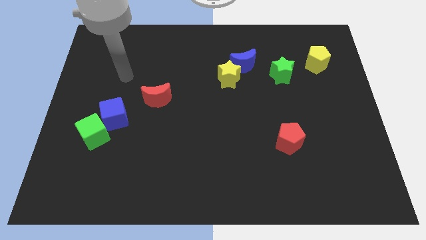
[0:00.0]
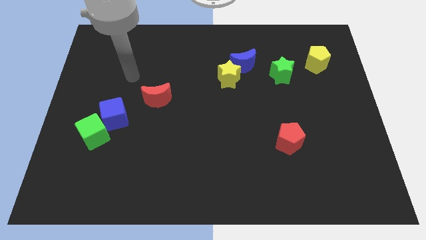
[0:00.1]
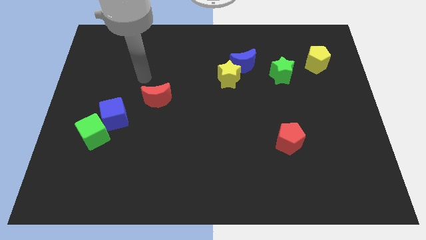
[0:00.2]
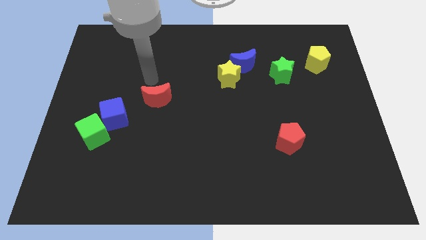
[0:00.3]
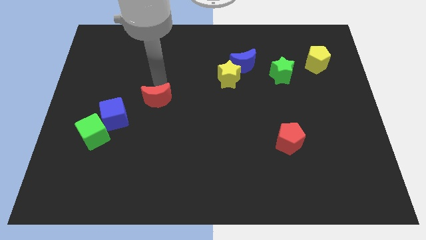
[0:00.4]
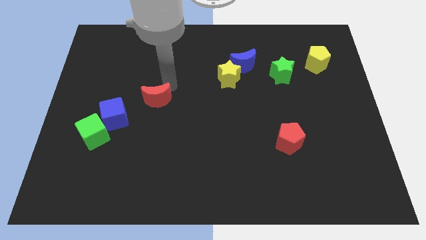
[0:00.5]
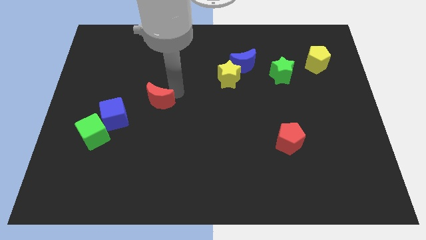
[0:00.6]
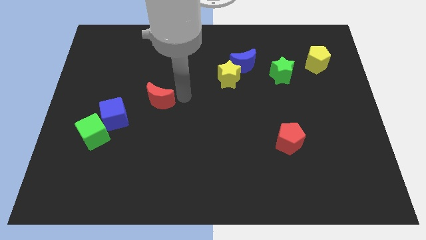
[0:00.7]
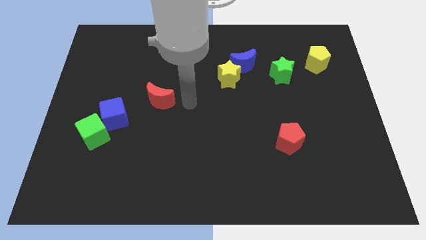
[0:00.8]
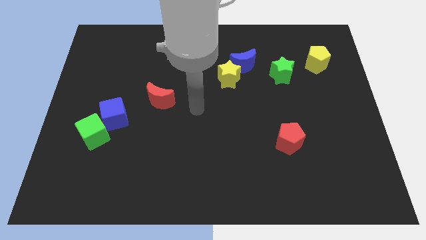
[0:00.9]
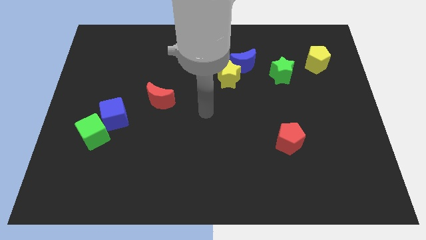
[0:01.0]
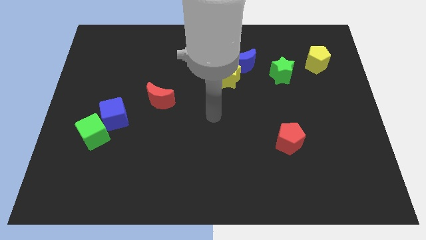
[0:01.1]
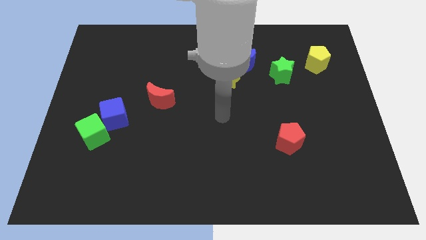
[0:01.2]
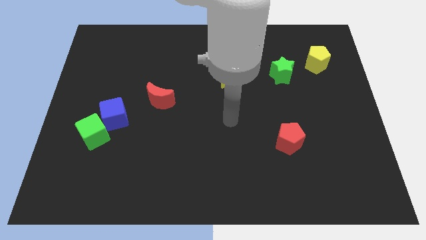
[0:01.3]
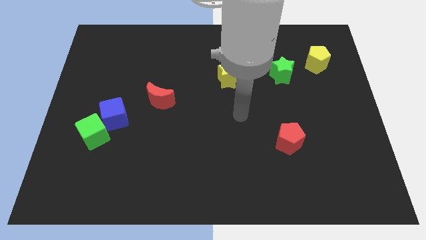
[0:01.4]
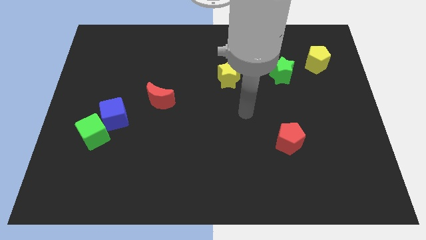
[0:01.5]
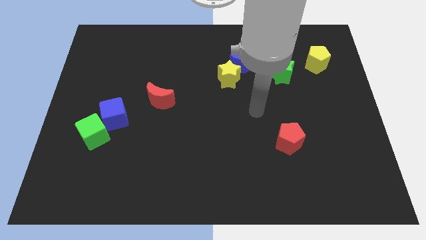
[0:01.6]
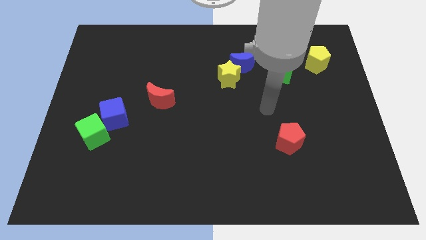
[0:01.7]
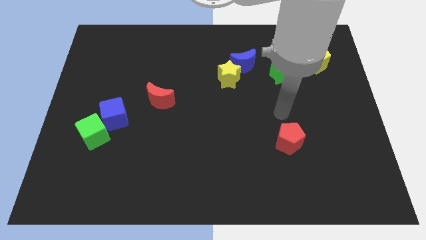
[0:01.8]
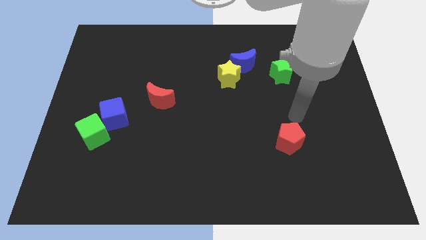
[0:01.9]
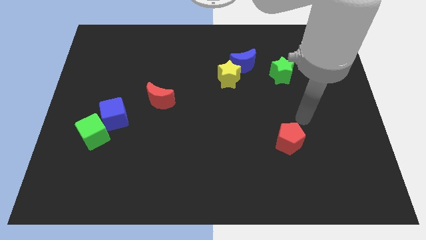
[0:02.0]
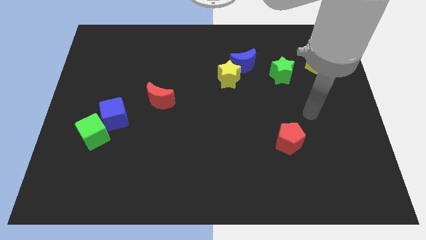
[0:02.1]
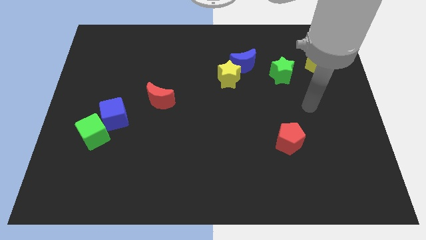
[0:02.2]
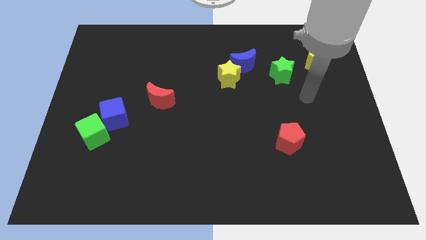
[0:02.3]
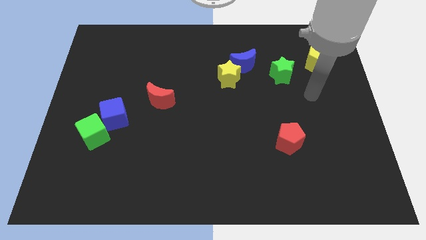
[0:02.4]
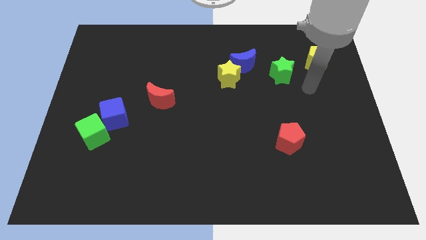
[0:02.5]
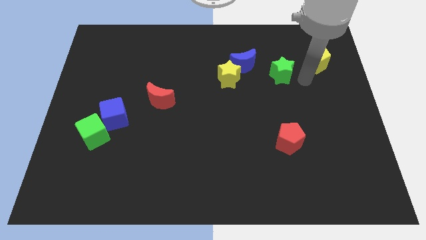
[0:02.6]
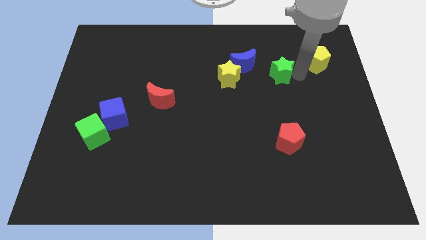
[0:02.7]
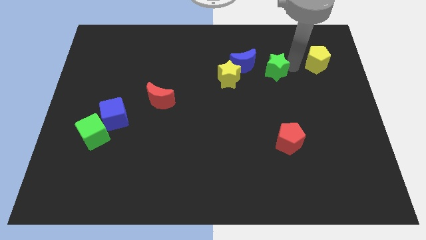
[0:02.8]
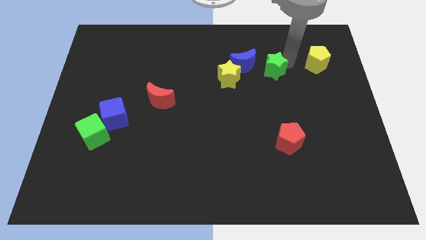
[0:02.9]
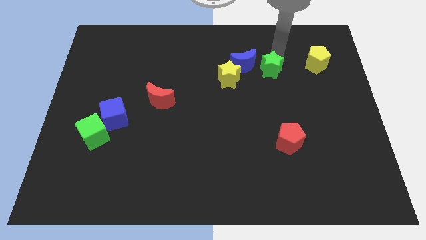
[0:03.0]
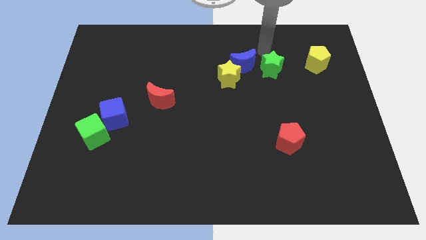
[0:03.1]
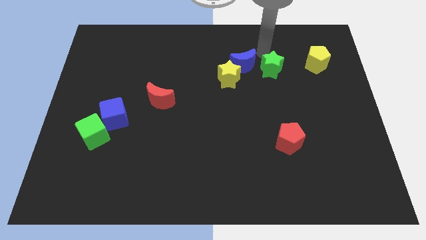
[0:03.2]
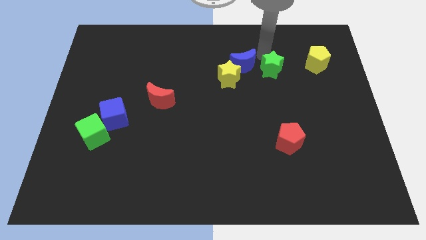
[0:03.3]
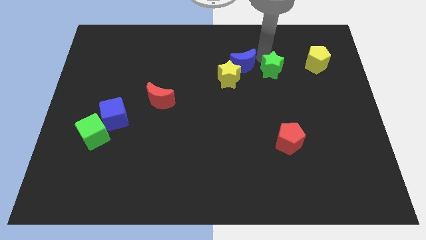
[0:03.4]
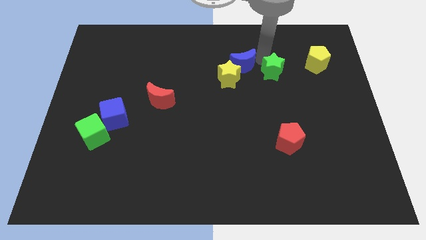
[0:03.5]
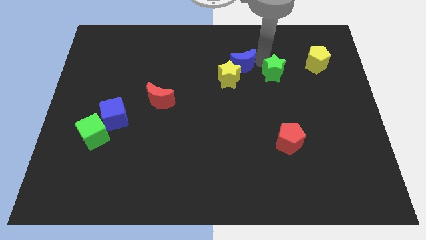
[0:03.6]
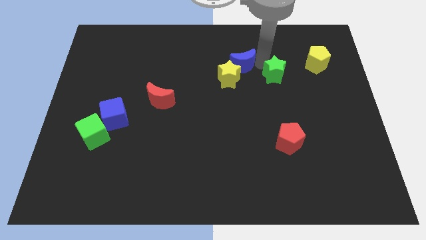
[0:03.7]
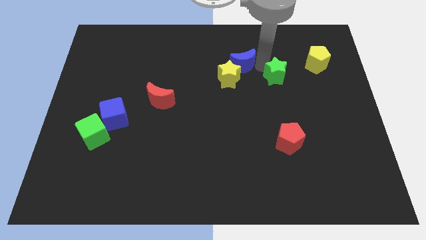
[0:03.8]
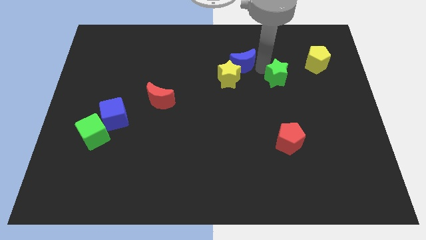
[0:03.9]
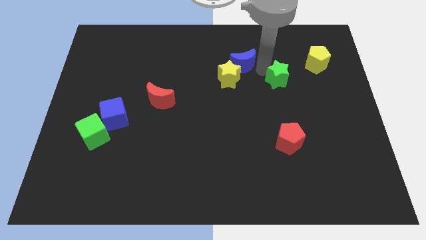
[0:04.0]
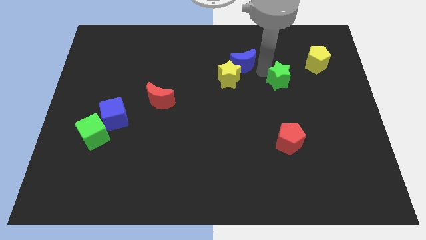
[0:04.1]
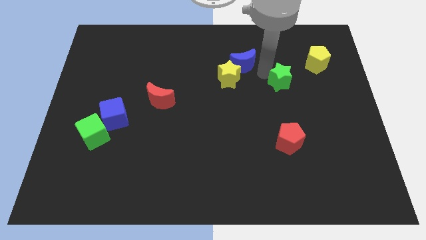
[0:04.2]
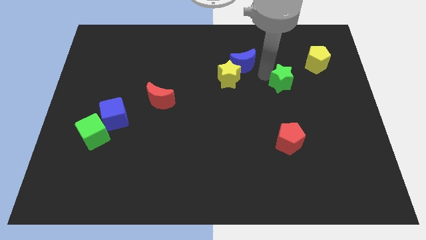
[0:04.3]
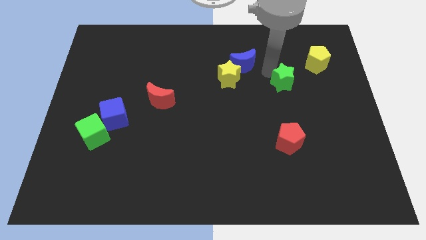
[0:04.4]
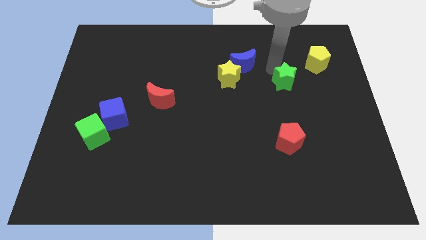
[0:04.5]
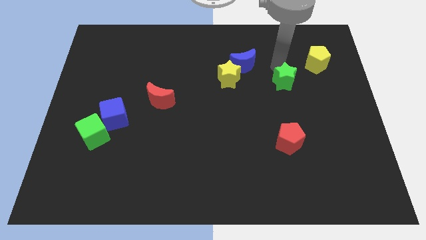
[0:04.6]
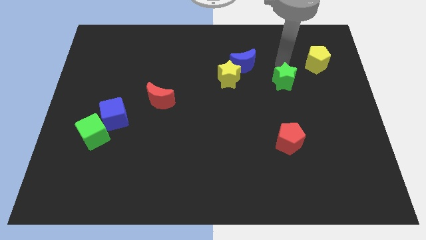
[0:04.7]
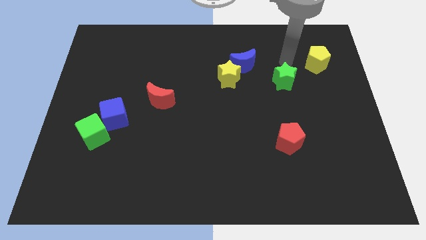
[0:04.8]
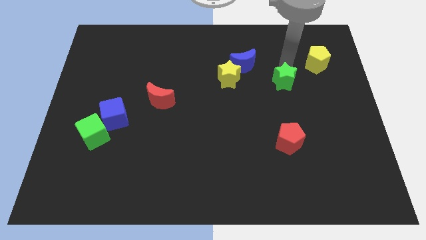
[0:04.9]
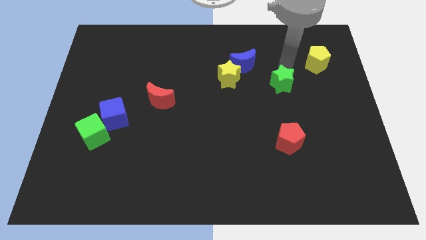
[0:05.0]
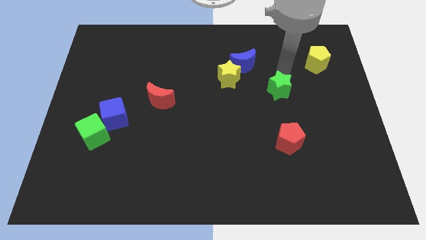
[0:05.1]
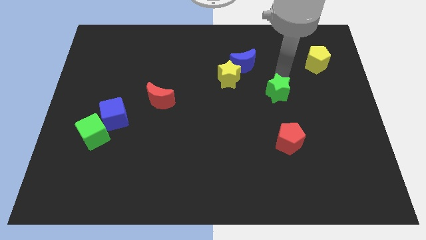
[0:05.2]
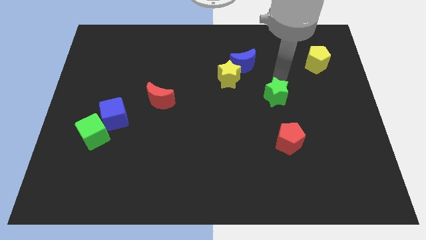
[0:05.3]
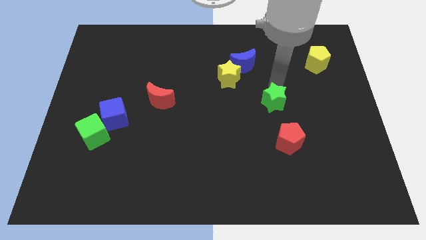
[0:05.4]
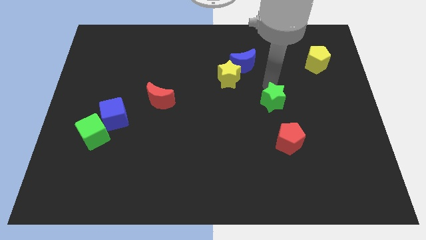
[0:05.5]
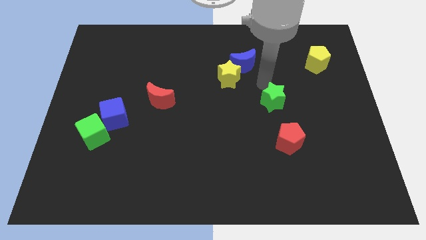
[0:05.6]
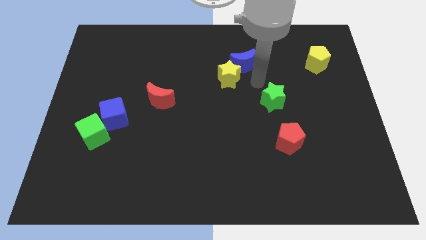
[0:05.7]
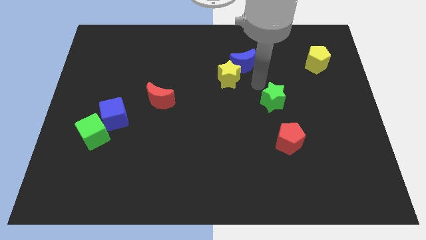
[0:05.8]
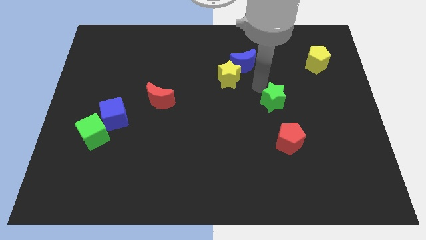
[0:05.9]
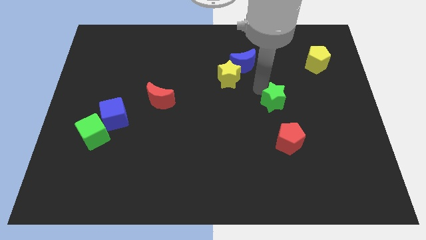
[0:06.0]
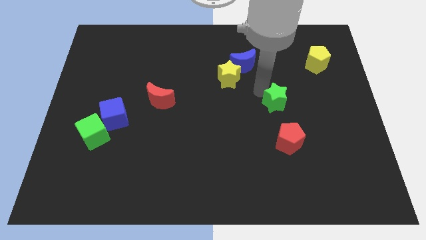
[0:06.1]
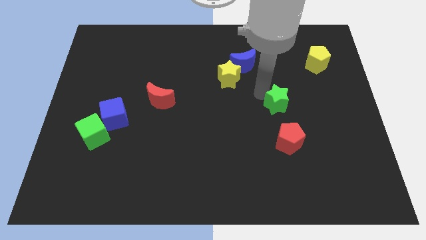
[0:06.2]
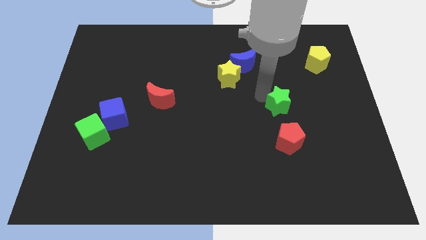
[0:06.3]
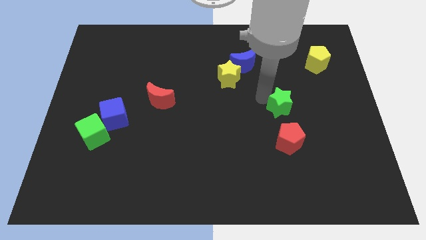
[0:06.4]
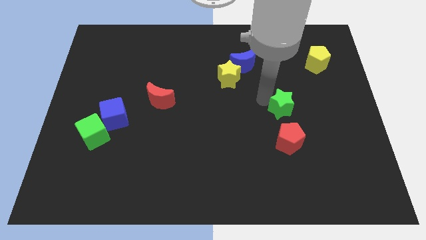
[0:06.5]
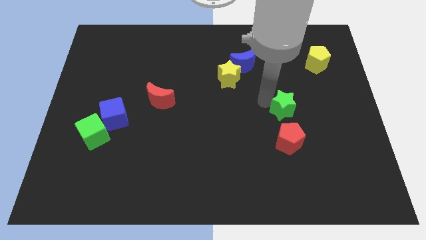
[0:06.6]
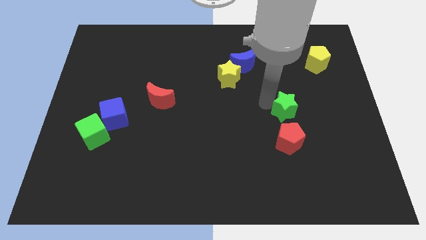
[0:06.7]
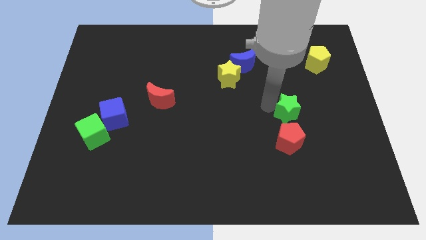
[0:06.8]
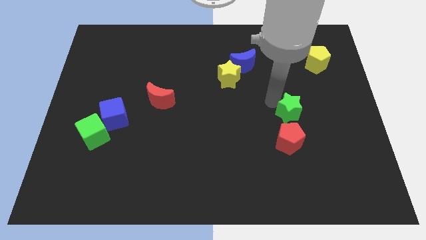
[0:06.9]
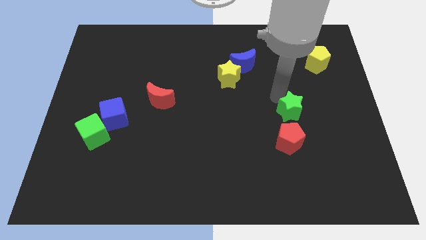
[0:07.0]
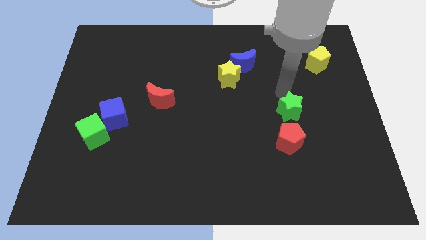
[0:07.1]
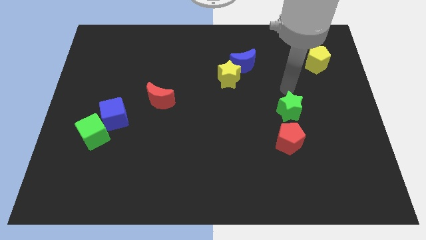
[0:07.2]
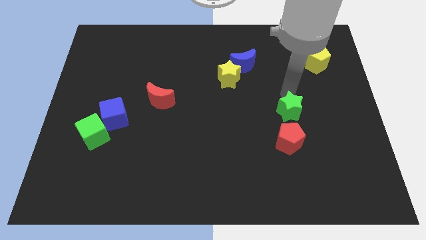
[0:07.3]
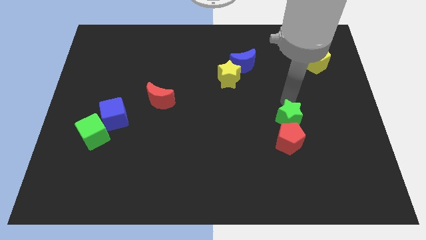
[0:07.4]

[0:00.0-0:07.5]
push the green star close to the red pentagon

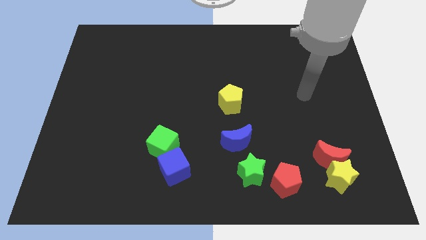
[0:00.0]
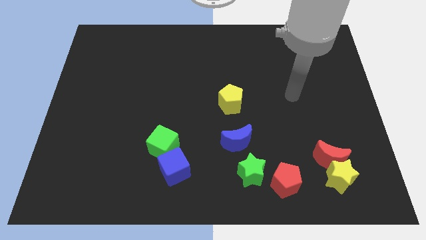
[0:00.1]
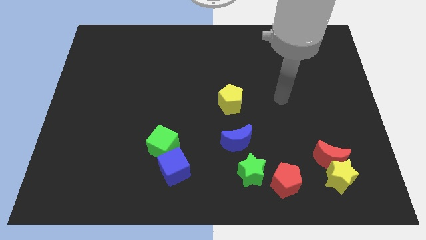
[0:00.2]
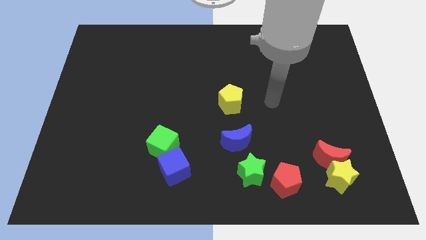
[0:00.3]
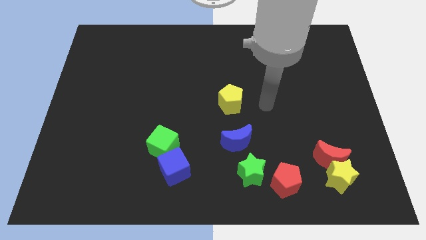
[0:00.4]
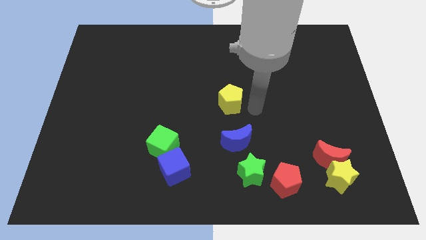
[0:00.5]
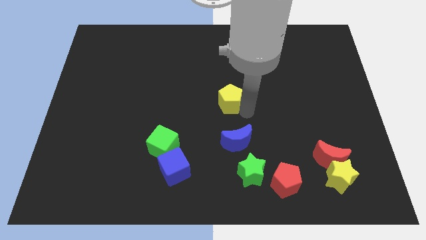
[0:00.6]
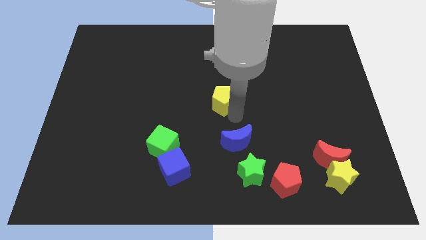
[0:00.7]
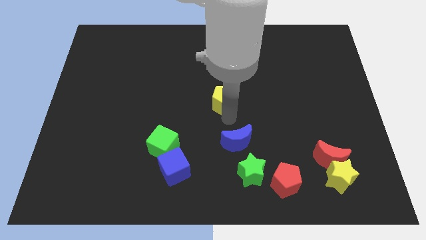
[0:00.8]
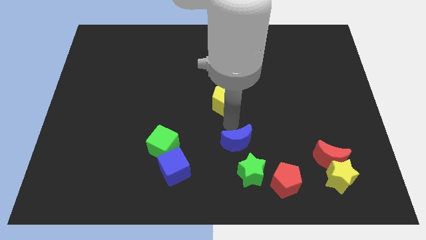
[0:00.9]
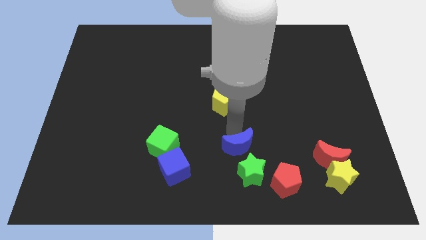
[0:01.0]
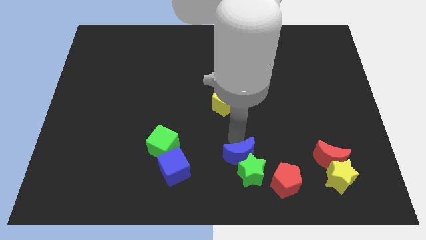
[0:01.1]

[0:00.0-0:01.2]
slide the blue moon next to the green star
